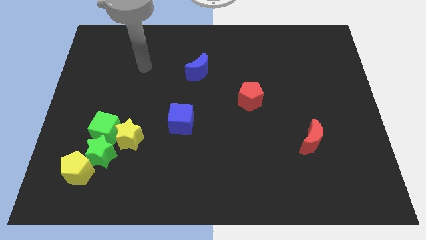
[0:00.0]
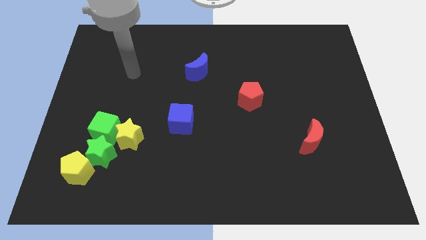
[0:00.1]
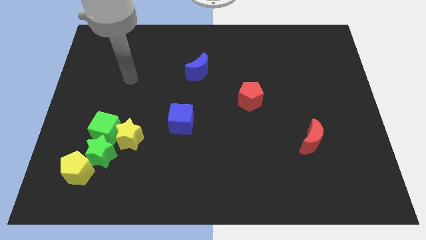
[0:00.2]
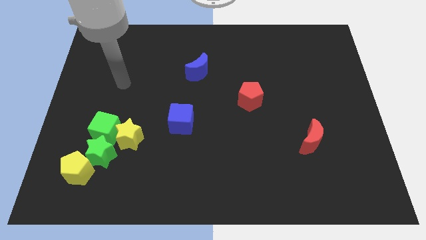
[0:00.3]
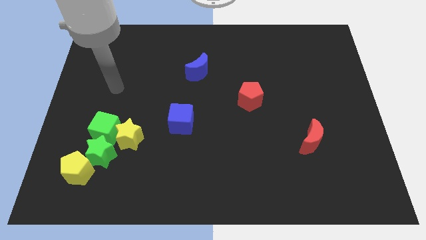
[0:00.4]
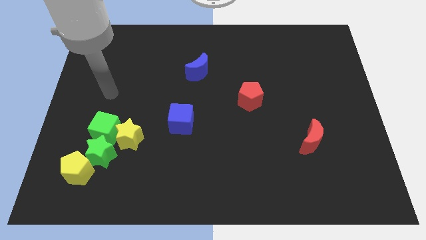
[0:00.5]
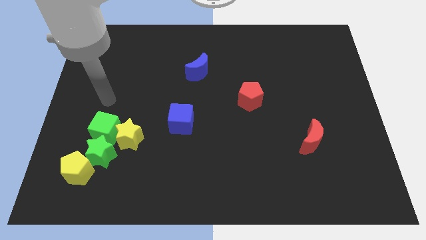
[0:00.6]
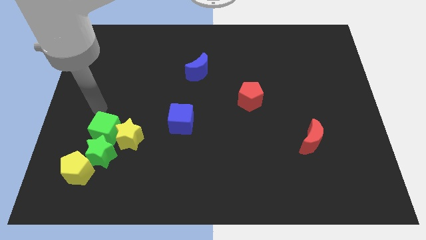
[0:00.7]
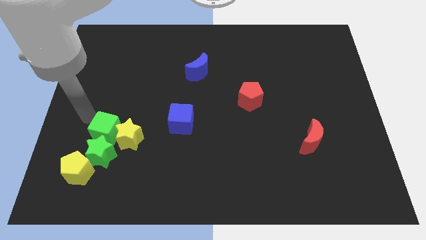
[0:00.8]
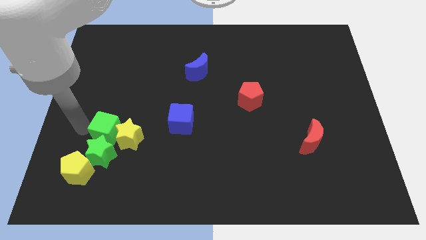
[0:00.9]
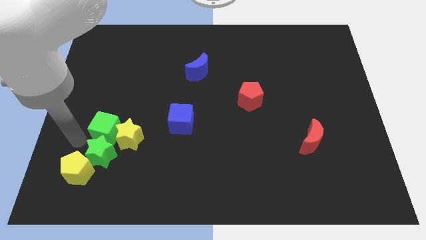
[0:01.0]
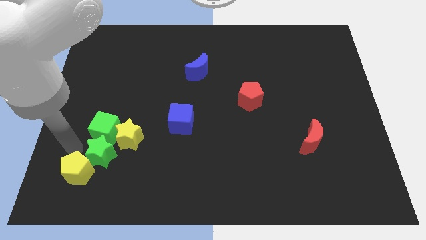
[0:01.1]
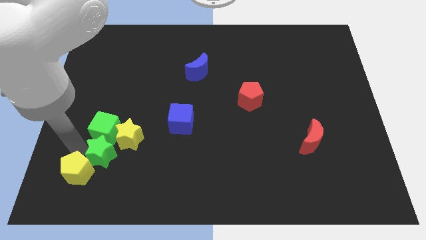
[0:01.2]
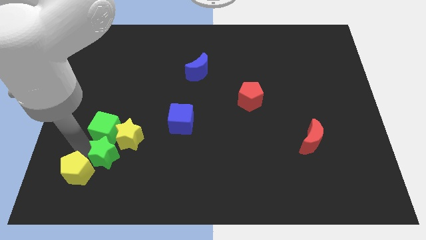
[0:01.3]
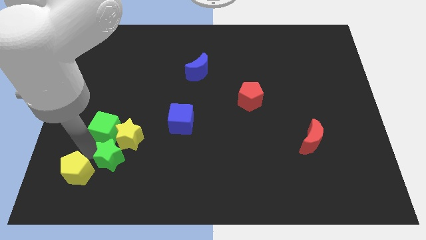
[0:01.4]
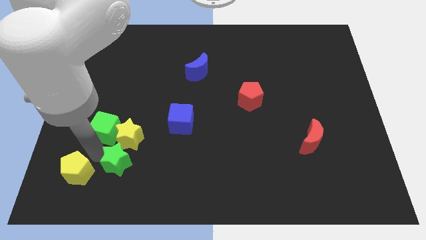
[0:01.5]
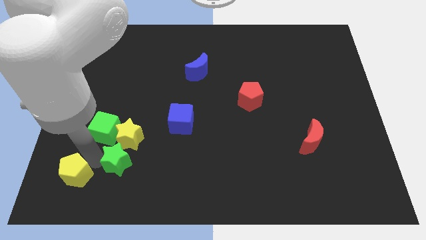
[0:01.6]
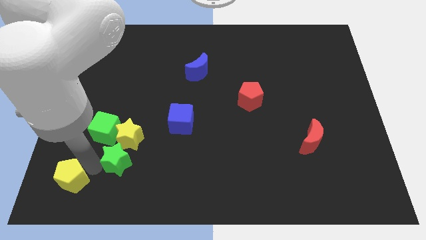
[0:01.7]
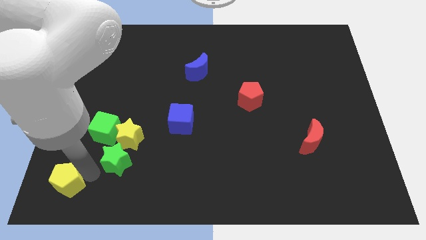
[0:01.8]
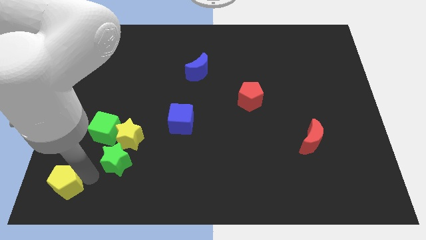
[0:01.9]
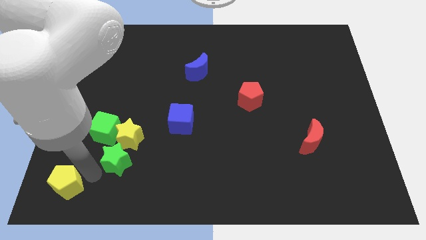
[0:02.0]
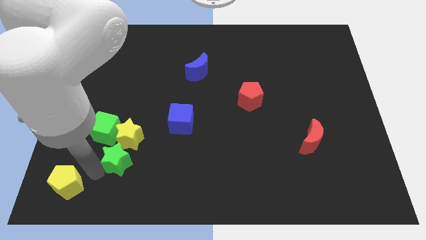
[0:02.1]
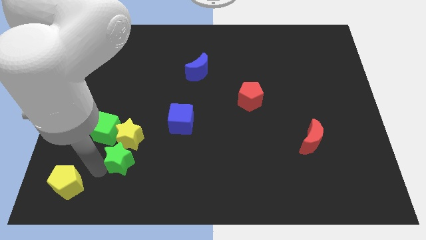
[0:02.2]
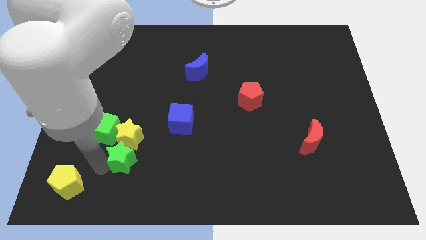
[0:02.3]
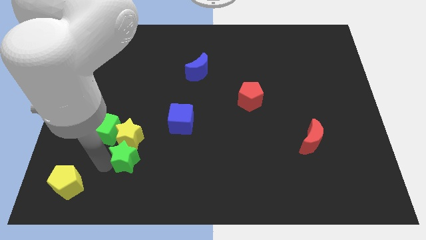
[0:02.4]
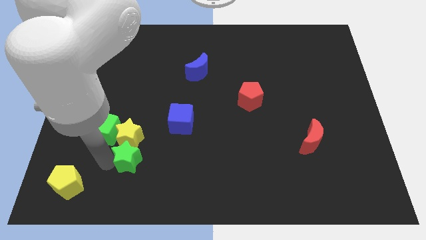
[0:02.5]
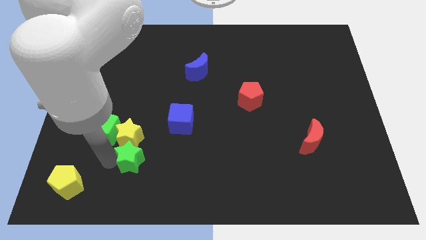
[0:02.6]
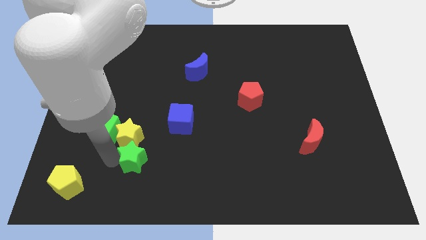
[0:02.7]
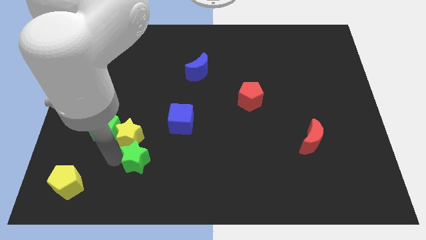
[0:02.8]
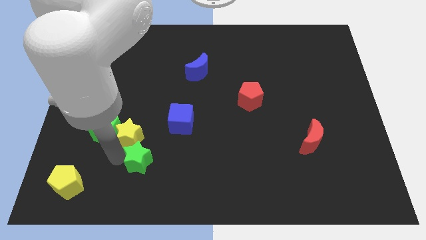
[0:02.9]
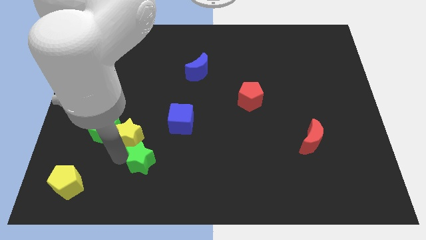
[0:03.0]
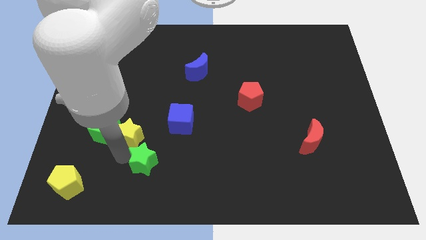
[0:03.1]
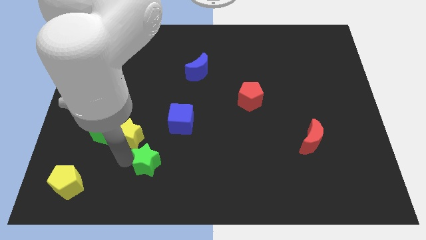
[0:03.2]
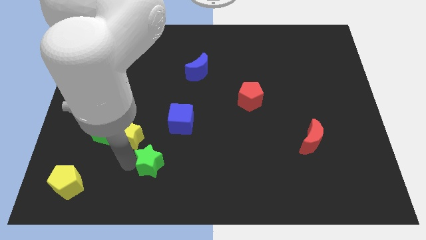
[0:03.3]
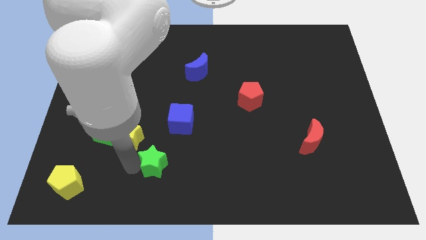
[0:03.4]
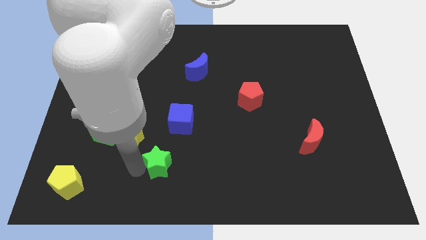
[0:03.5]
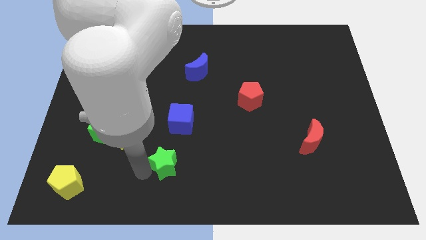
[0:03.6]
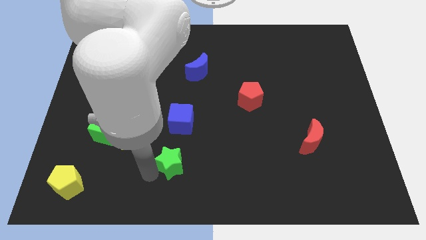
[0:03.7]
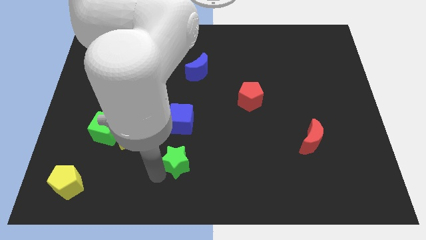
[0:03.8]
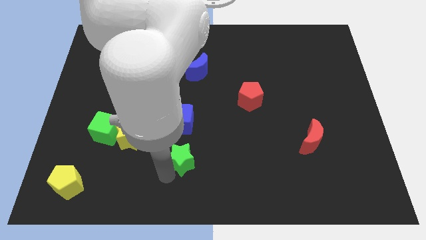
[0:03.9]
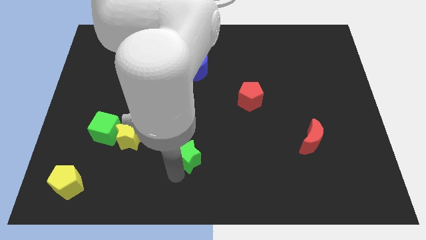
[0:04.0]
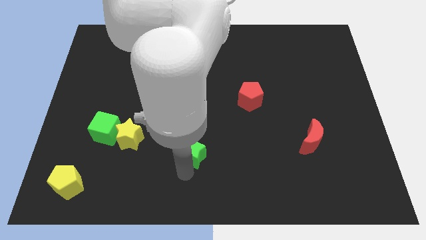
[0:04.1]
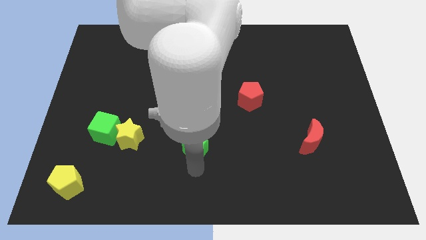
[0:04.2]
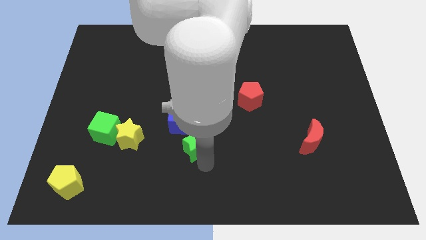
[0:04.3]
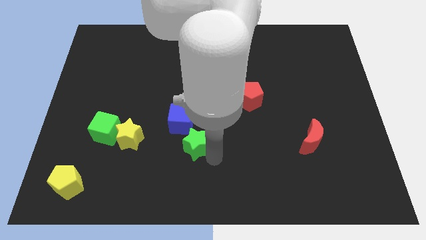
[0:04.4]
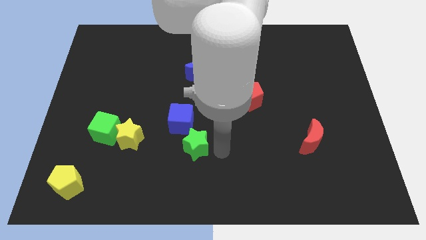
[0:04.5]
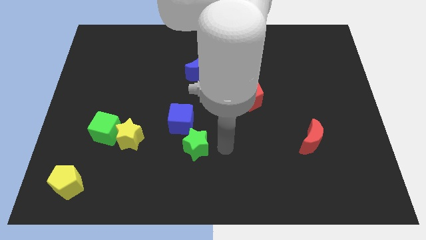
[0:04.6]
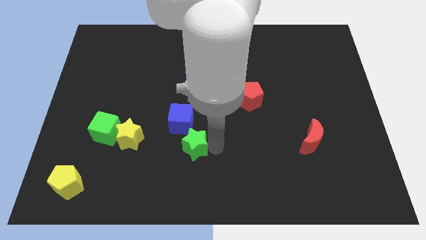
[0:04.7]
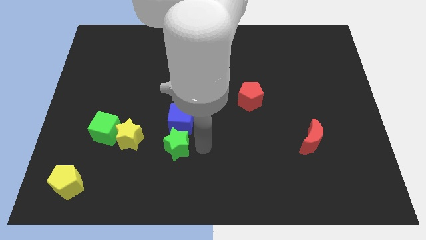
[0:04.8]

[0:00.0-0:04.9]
slide the green star upwards and then right a bit

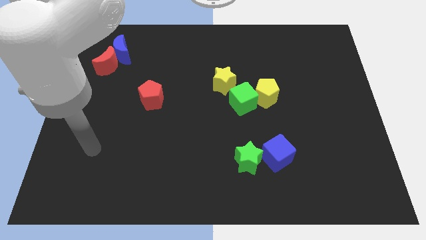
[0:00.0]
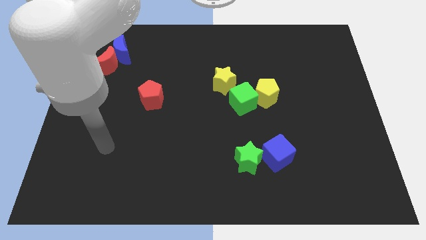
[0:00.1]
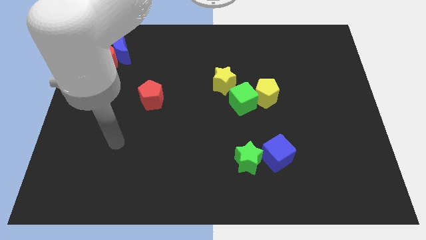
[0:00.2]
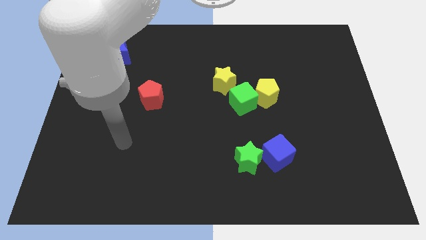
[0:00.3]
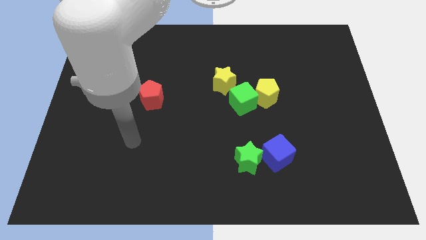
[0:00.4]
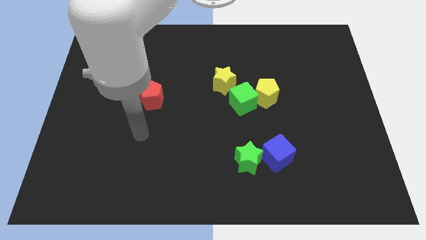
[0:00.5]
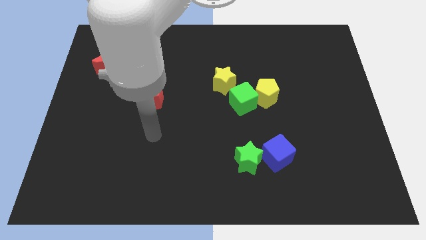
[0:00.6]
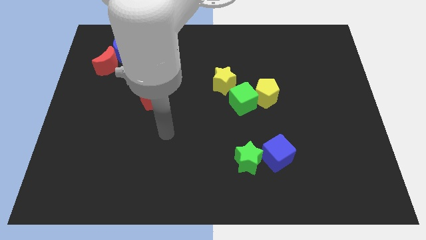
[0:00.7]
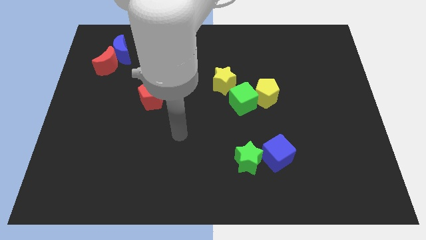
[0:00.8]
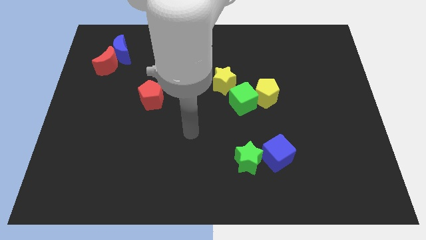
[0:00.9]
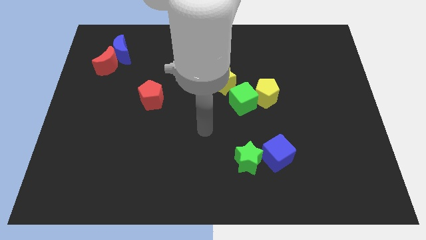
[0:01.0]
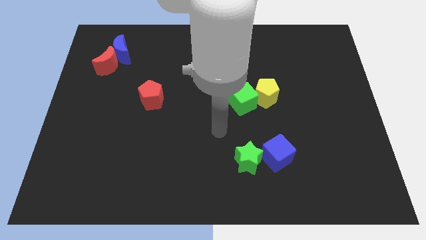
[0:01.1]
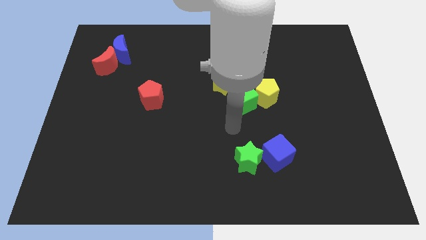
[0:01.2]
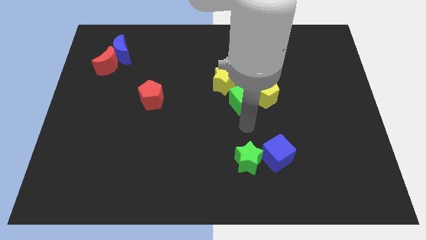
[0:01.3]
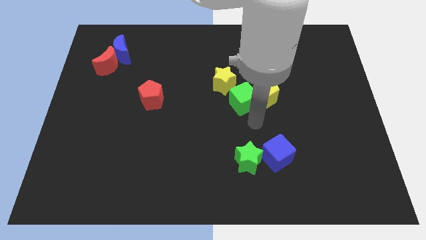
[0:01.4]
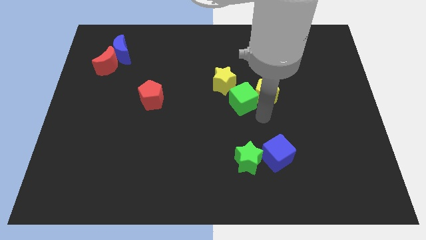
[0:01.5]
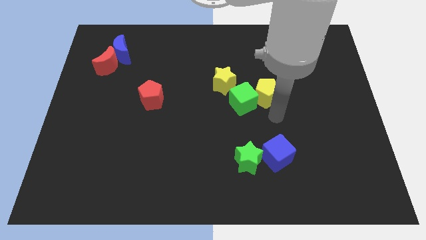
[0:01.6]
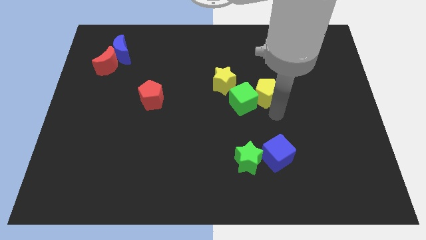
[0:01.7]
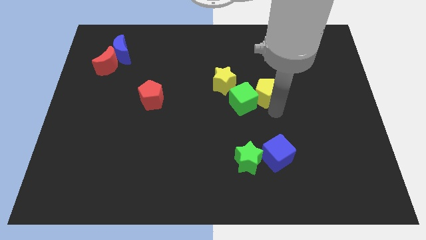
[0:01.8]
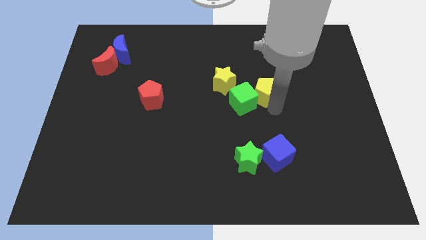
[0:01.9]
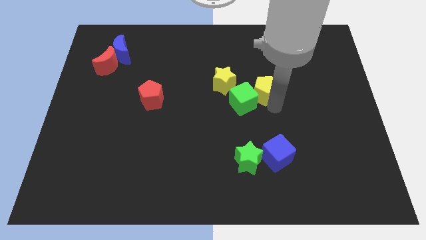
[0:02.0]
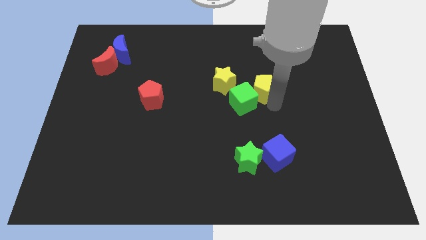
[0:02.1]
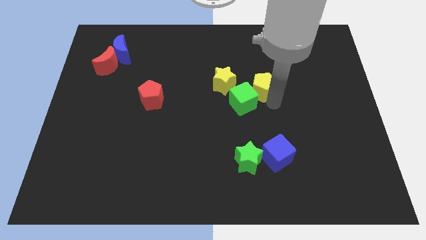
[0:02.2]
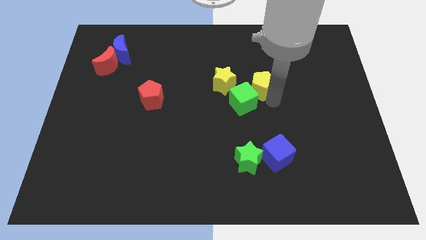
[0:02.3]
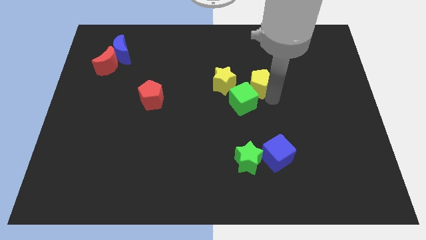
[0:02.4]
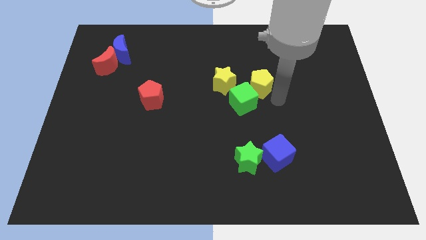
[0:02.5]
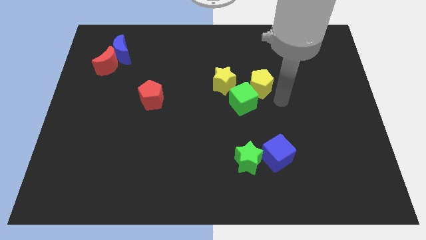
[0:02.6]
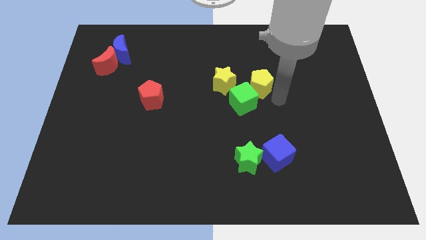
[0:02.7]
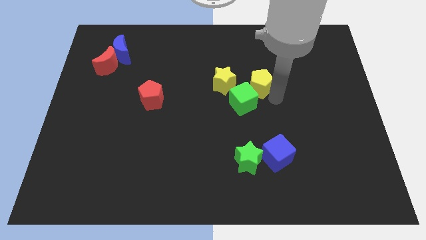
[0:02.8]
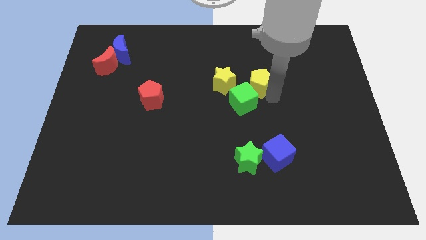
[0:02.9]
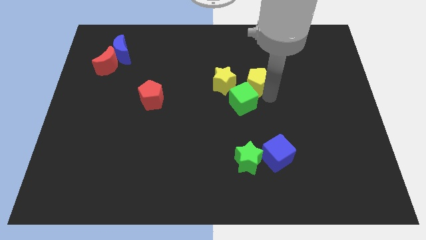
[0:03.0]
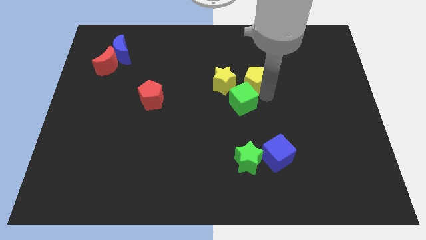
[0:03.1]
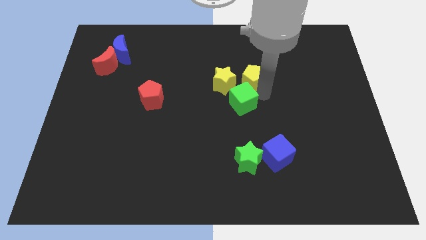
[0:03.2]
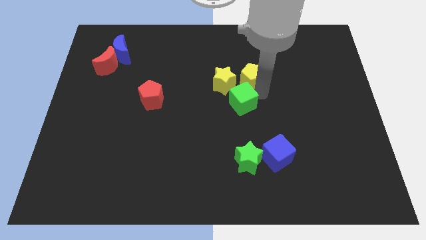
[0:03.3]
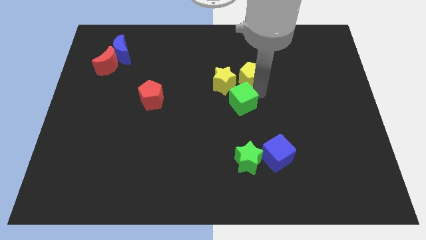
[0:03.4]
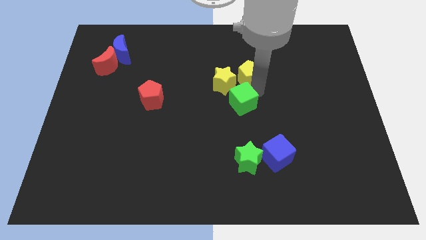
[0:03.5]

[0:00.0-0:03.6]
push the yellow pentagon diagonally up and to the left a little
